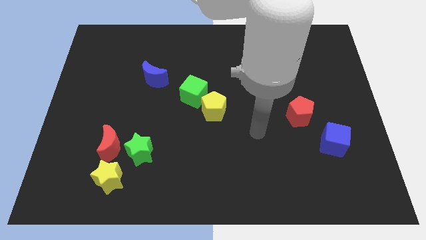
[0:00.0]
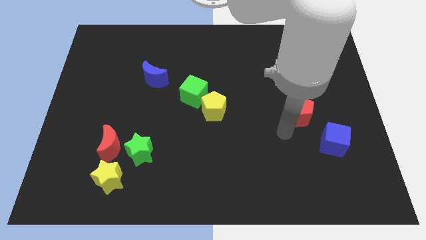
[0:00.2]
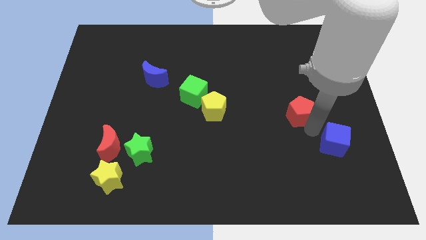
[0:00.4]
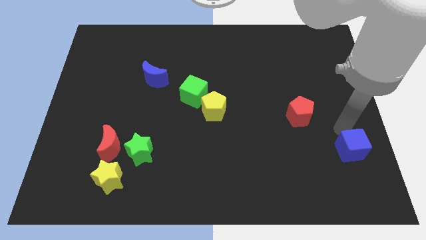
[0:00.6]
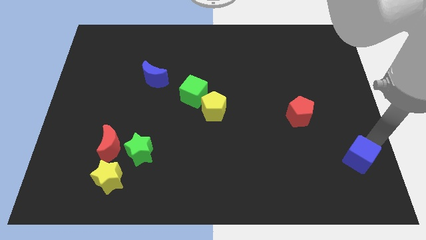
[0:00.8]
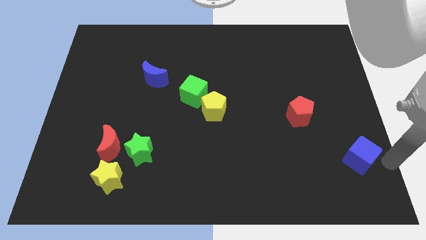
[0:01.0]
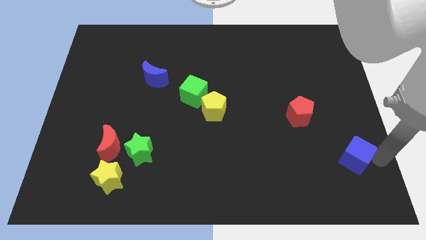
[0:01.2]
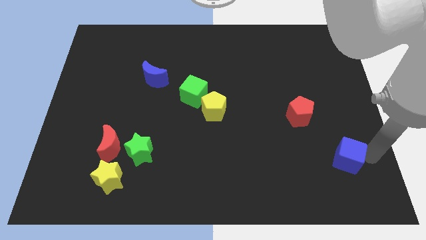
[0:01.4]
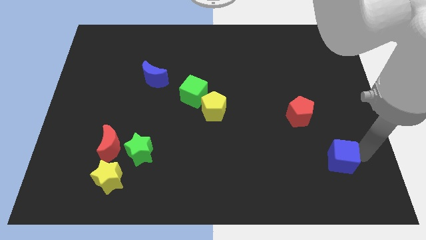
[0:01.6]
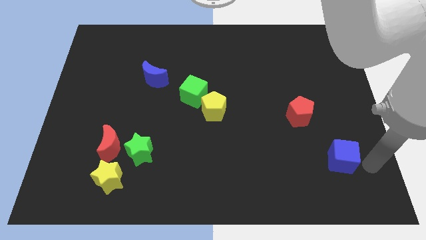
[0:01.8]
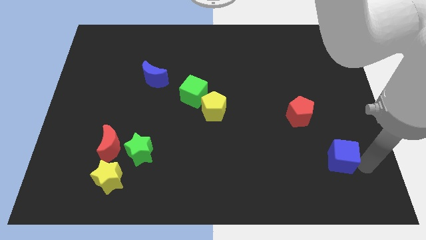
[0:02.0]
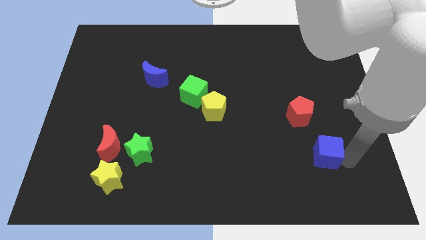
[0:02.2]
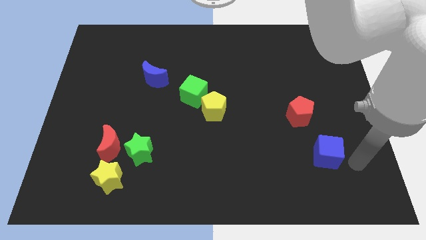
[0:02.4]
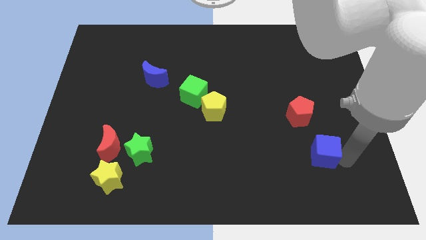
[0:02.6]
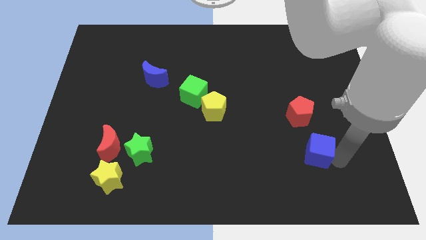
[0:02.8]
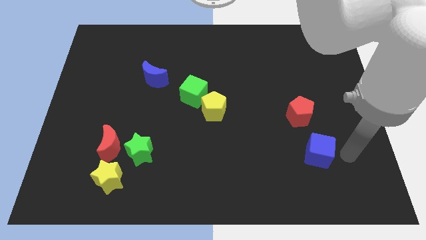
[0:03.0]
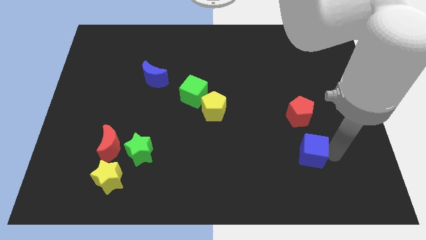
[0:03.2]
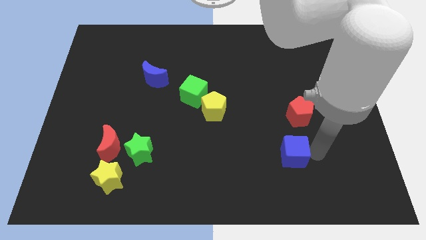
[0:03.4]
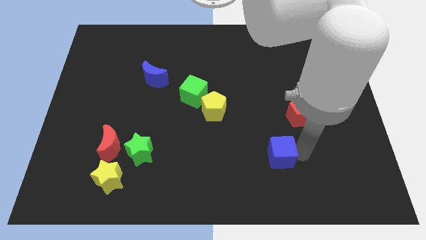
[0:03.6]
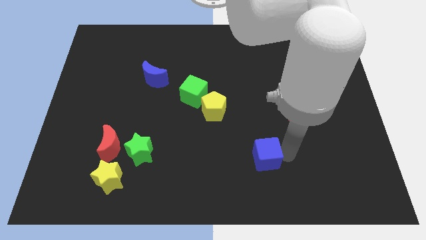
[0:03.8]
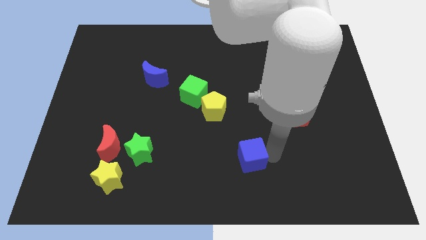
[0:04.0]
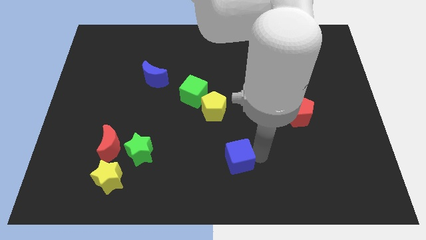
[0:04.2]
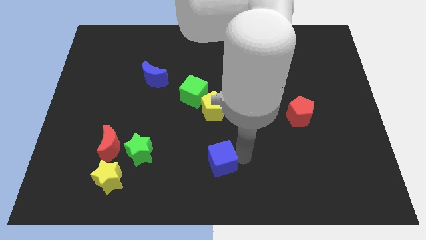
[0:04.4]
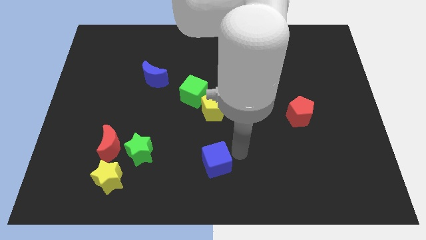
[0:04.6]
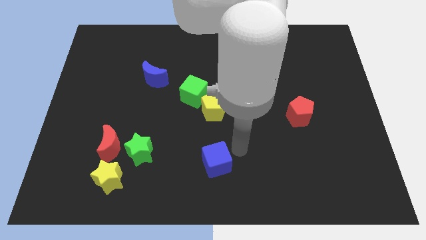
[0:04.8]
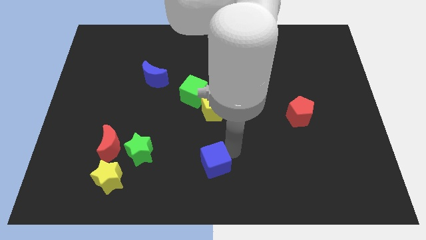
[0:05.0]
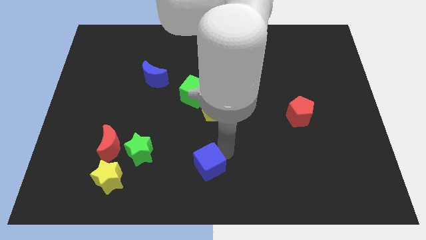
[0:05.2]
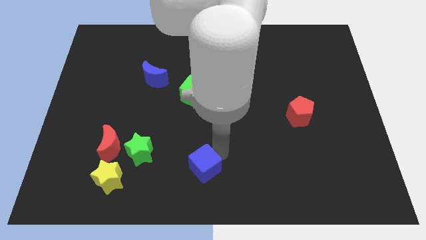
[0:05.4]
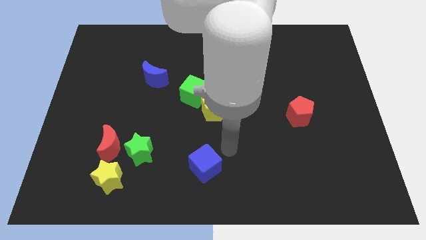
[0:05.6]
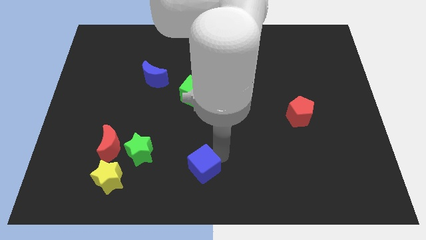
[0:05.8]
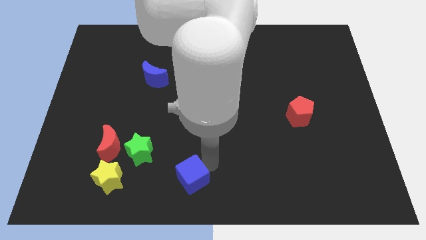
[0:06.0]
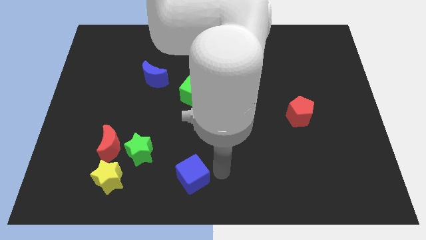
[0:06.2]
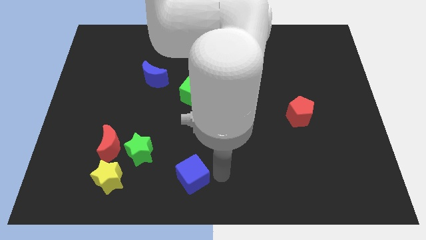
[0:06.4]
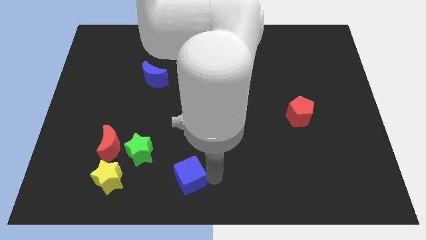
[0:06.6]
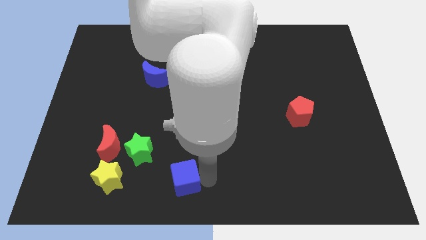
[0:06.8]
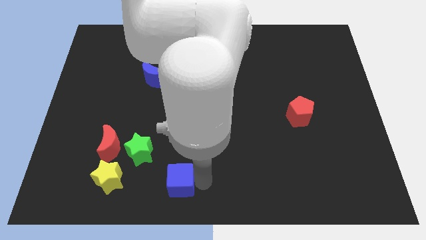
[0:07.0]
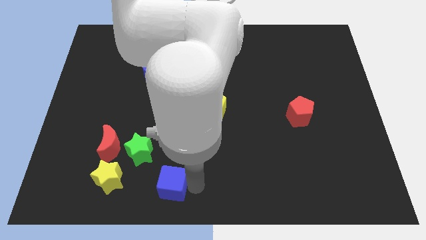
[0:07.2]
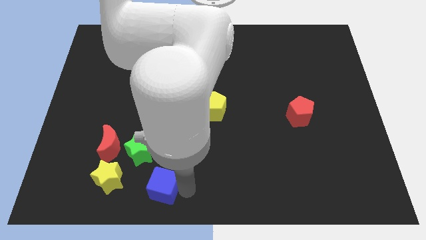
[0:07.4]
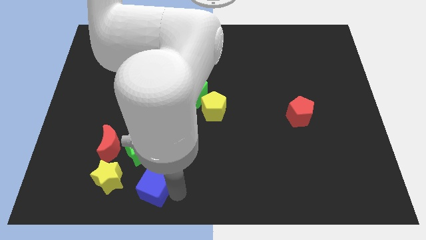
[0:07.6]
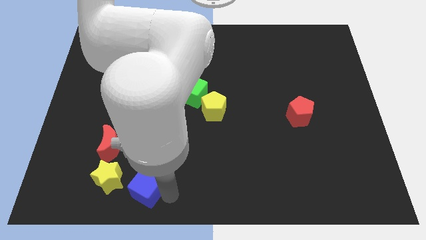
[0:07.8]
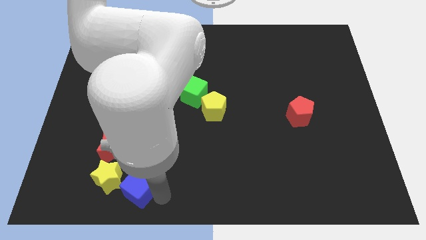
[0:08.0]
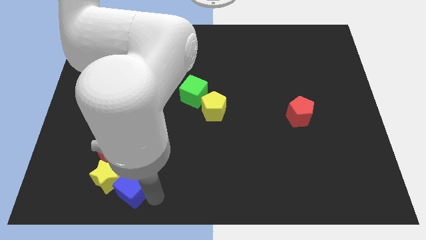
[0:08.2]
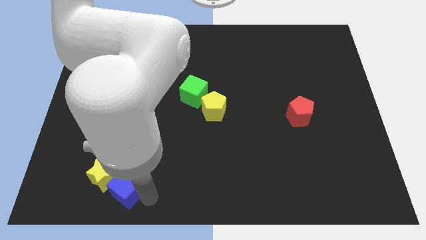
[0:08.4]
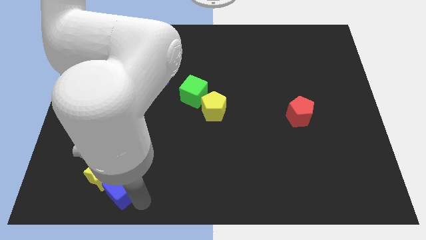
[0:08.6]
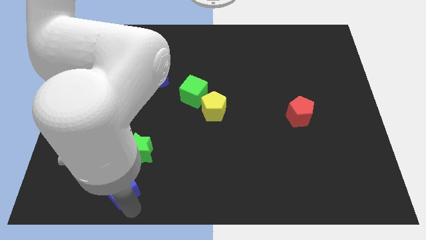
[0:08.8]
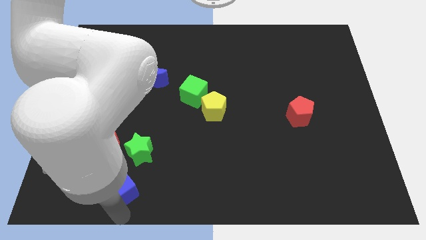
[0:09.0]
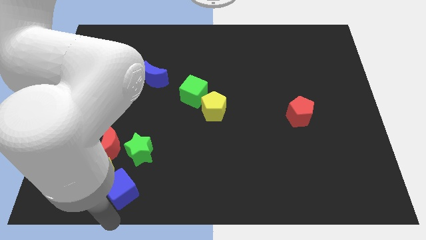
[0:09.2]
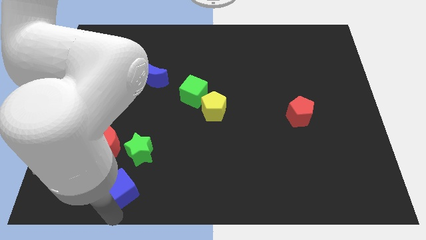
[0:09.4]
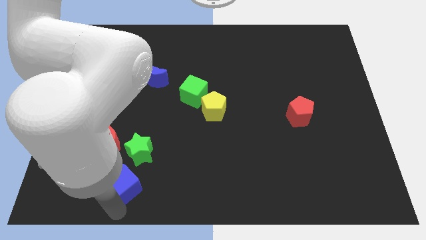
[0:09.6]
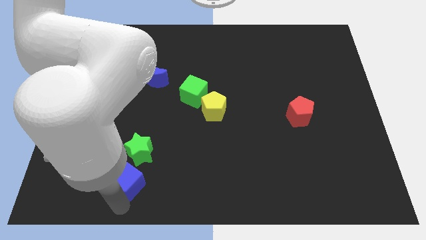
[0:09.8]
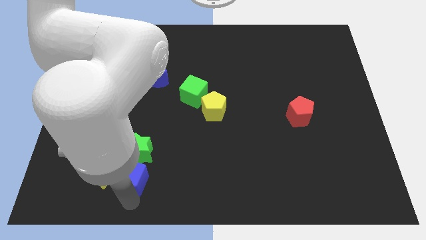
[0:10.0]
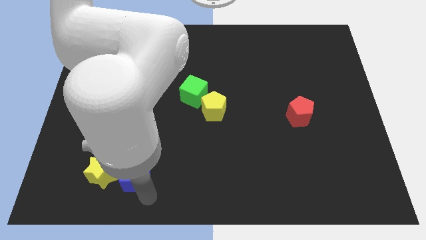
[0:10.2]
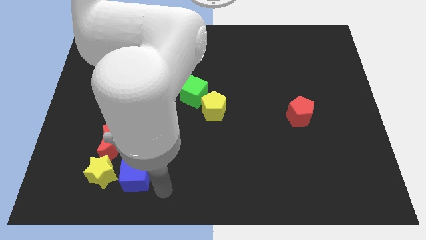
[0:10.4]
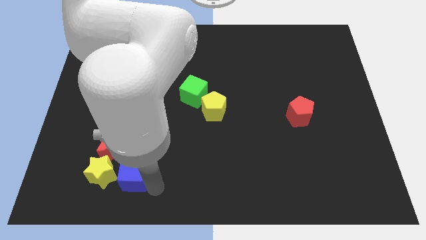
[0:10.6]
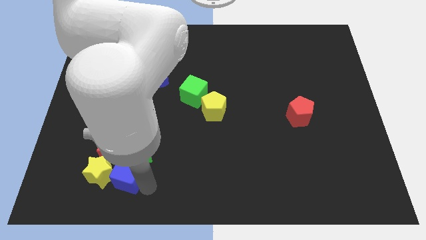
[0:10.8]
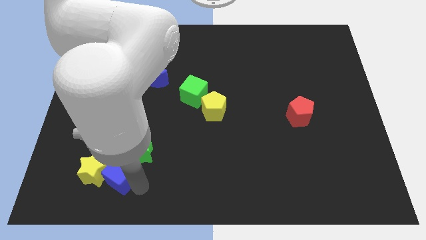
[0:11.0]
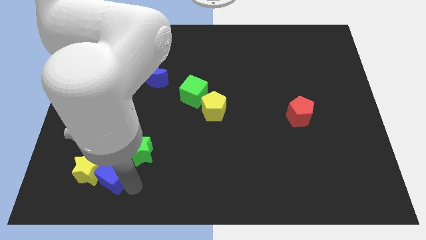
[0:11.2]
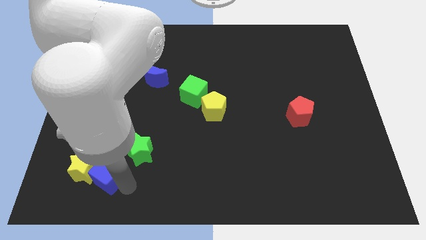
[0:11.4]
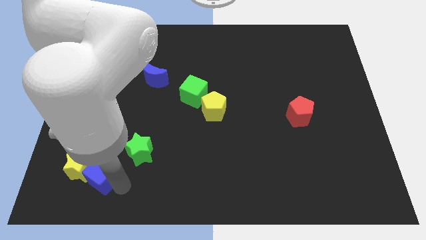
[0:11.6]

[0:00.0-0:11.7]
move the blue cube to the bottom left side of the red moon

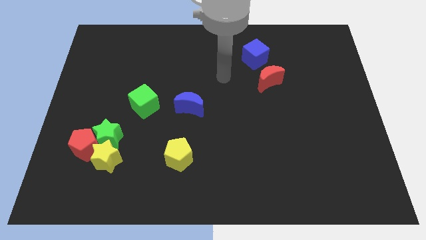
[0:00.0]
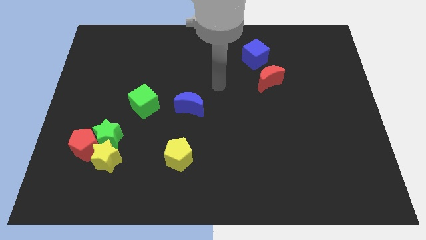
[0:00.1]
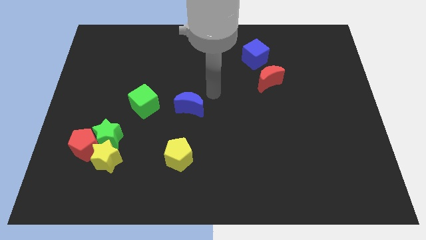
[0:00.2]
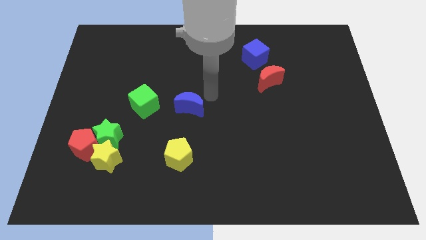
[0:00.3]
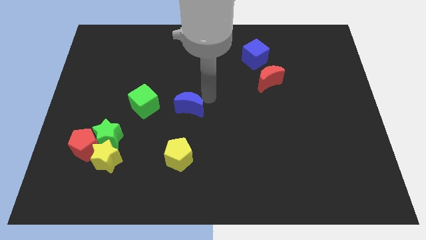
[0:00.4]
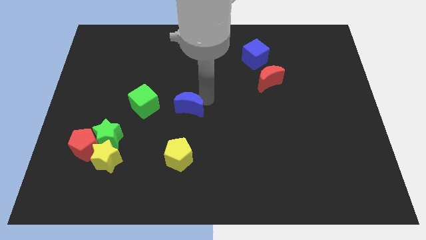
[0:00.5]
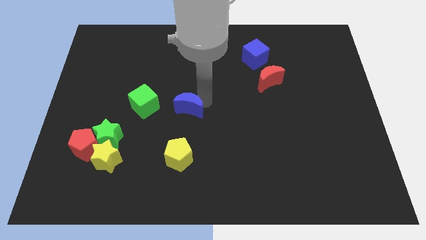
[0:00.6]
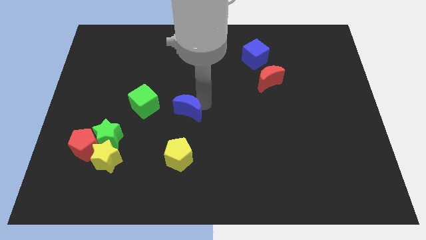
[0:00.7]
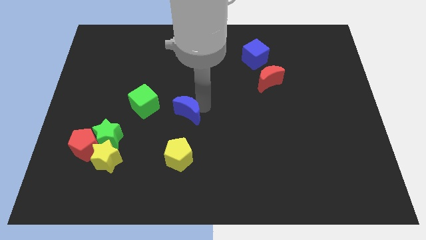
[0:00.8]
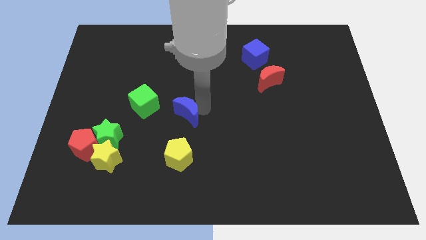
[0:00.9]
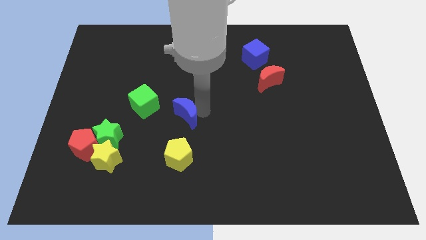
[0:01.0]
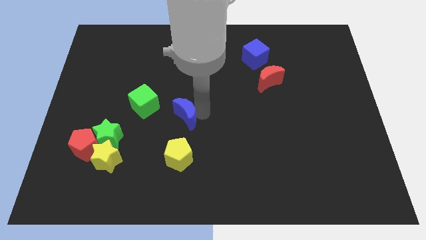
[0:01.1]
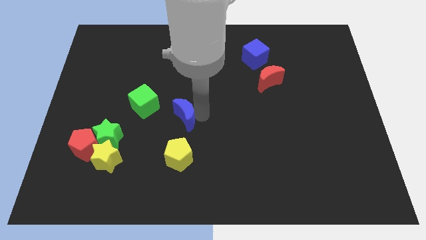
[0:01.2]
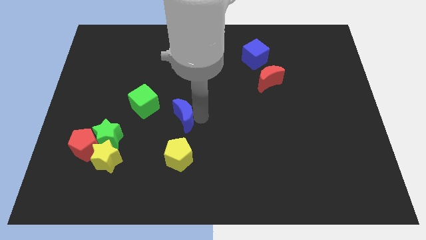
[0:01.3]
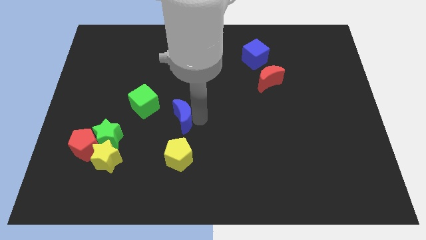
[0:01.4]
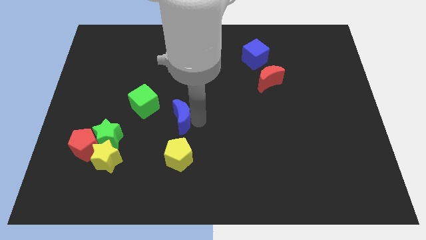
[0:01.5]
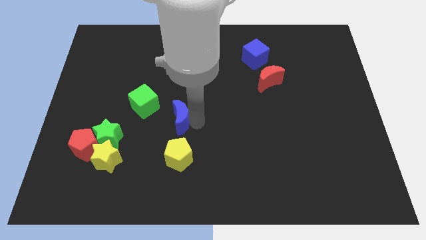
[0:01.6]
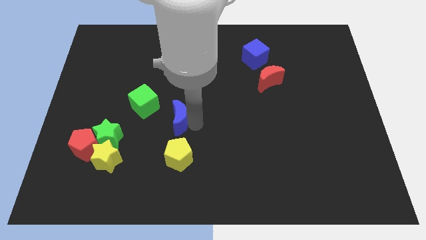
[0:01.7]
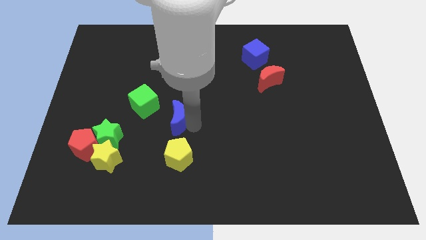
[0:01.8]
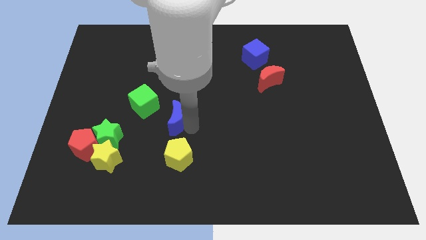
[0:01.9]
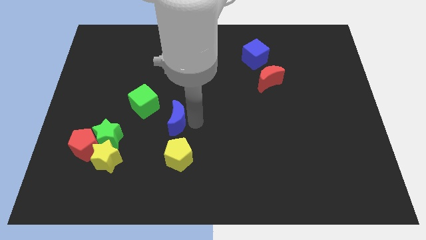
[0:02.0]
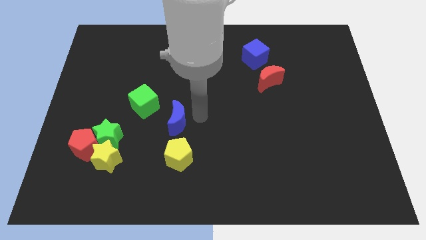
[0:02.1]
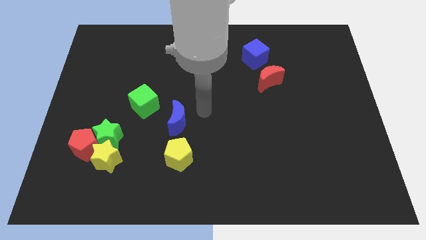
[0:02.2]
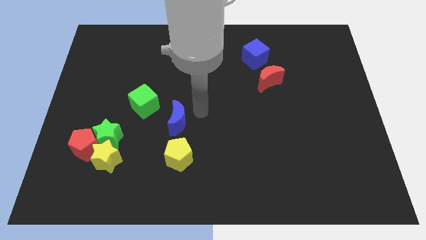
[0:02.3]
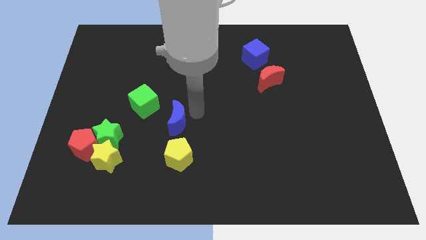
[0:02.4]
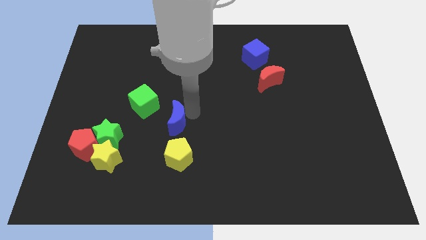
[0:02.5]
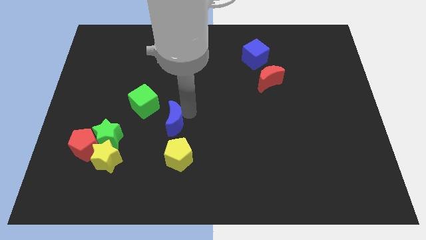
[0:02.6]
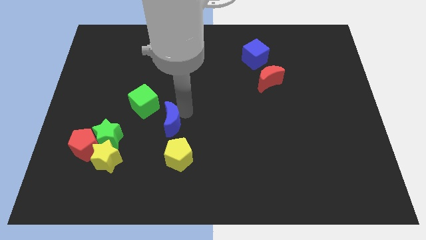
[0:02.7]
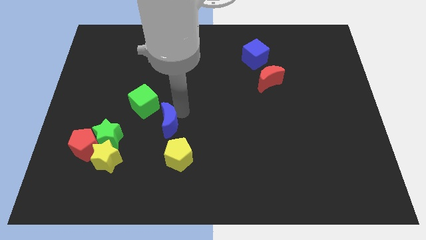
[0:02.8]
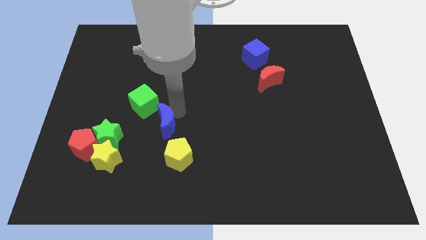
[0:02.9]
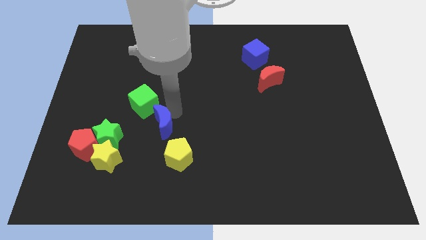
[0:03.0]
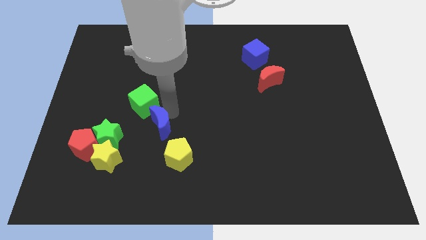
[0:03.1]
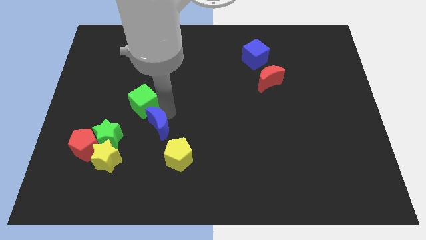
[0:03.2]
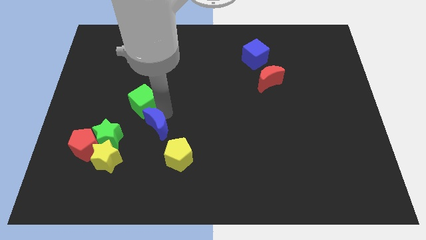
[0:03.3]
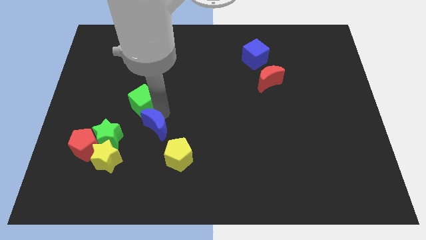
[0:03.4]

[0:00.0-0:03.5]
push the blue moon to the top right side of the yellow star
